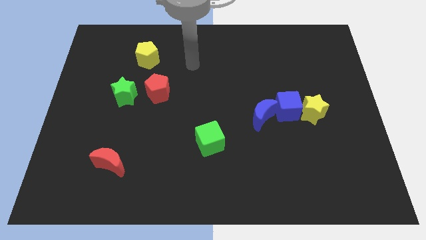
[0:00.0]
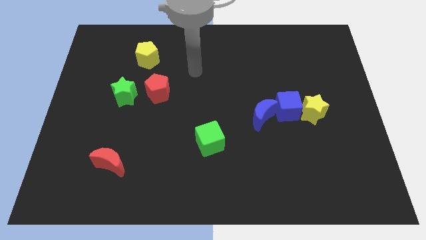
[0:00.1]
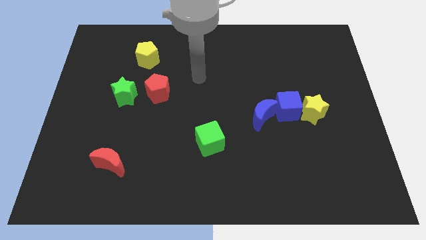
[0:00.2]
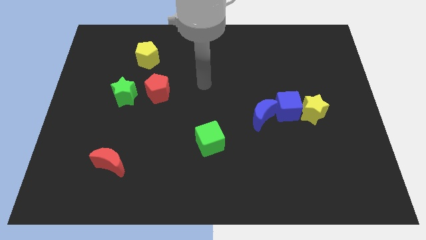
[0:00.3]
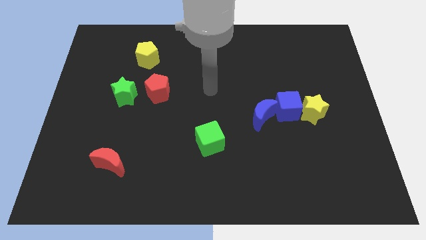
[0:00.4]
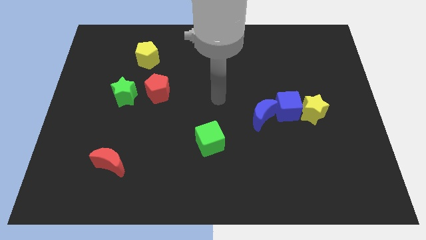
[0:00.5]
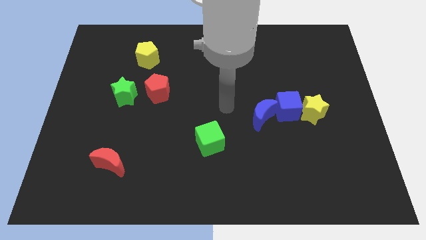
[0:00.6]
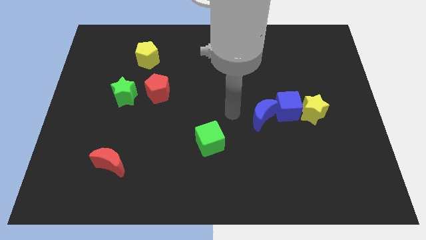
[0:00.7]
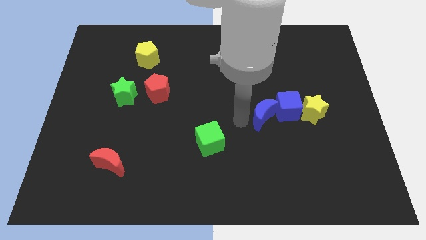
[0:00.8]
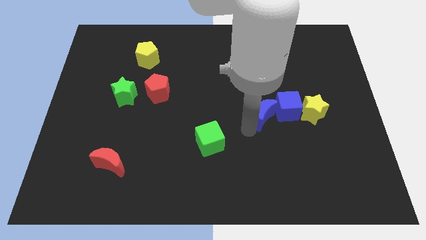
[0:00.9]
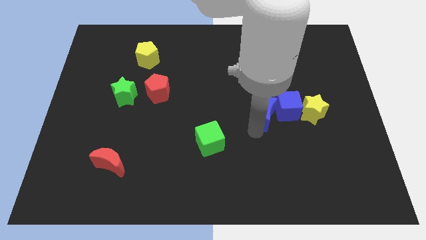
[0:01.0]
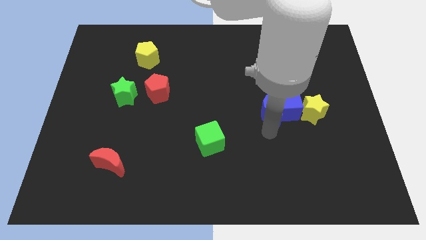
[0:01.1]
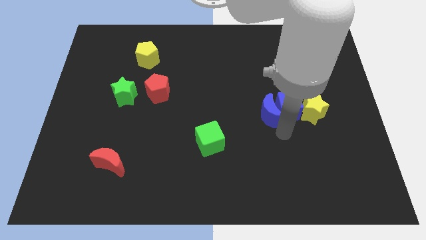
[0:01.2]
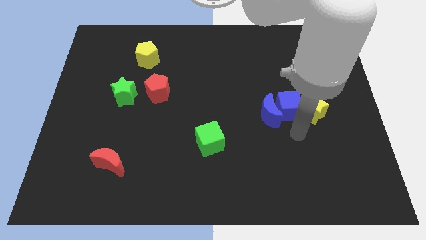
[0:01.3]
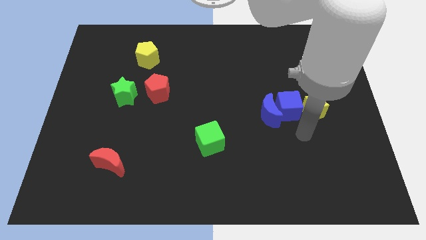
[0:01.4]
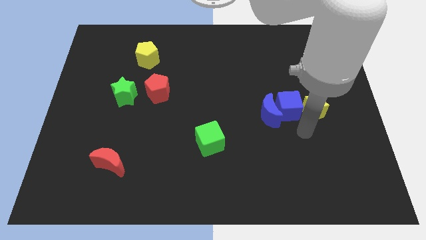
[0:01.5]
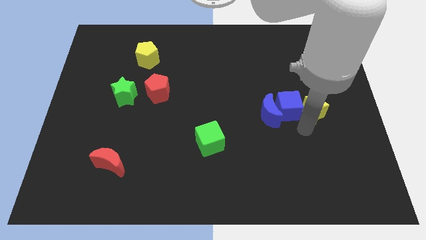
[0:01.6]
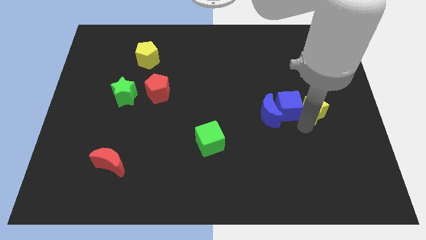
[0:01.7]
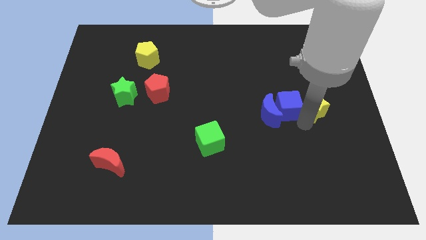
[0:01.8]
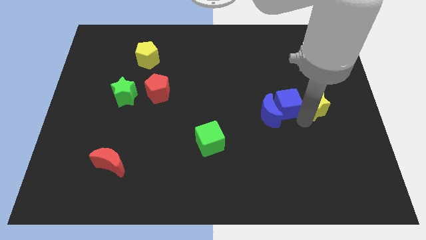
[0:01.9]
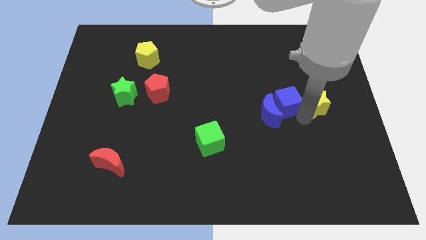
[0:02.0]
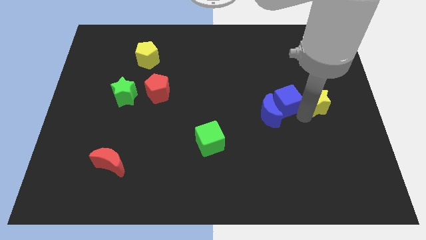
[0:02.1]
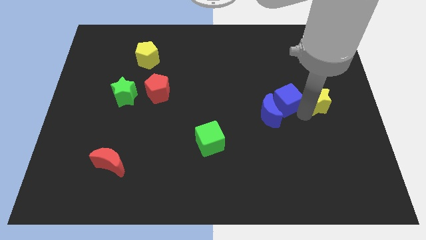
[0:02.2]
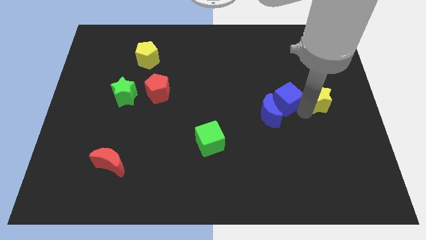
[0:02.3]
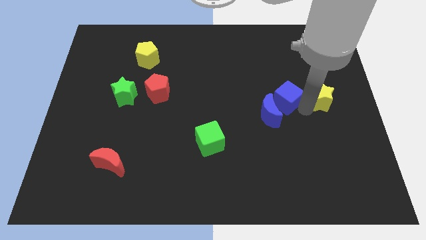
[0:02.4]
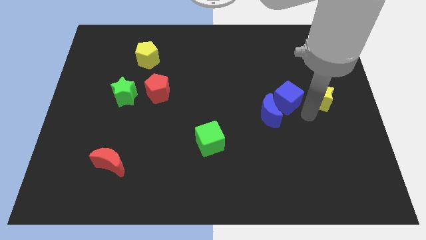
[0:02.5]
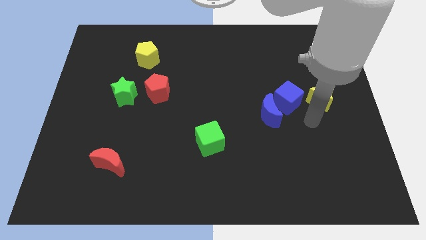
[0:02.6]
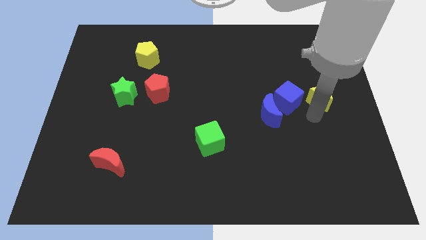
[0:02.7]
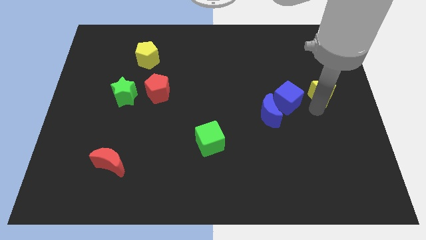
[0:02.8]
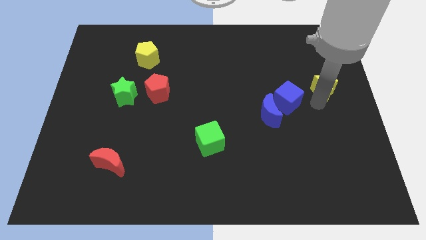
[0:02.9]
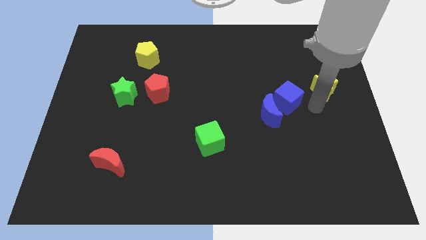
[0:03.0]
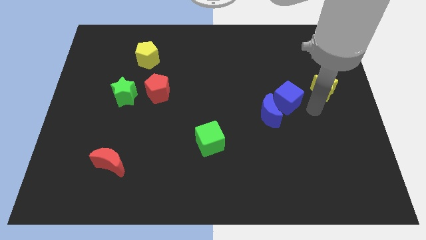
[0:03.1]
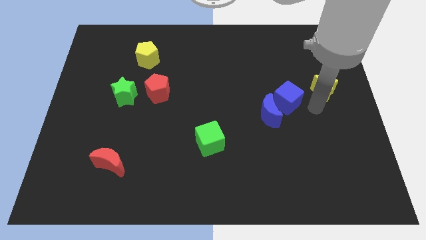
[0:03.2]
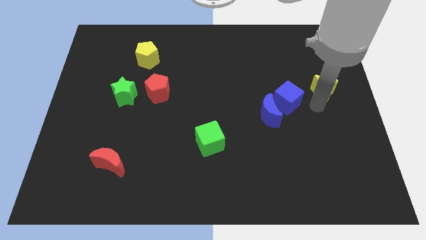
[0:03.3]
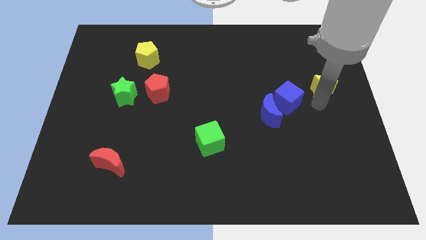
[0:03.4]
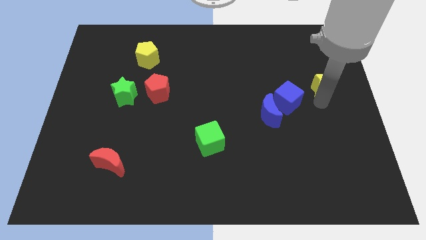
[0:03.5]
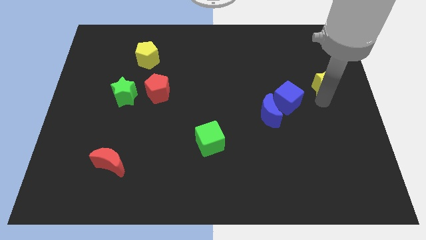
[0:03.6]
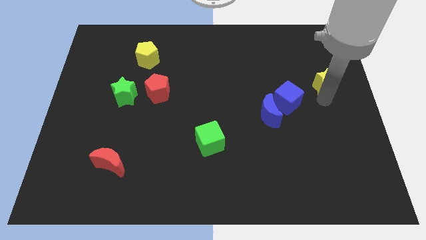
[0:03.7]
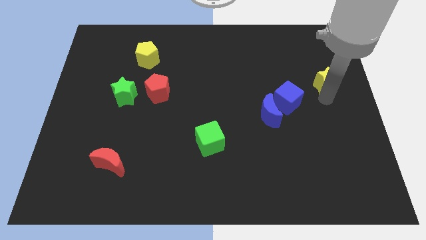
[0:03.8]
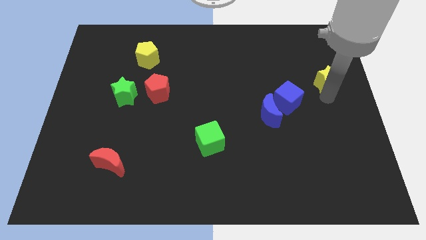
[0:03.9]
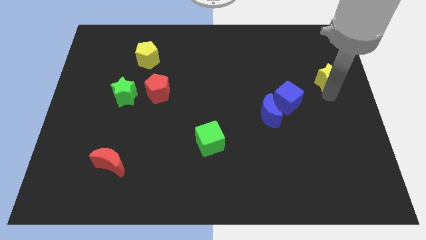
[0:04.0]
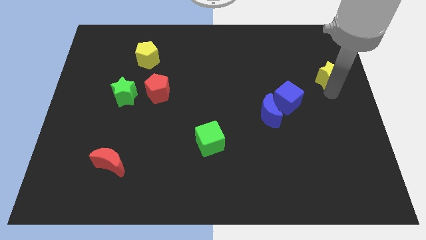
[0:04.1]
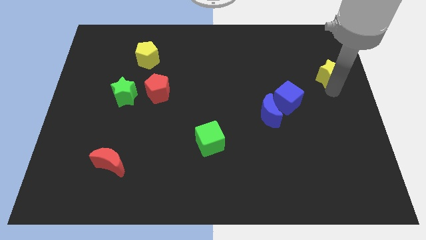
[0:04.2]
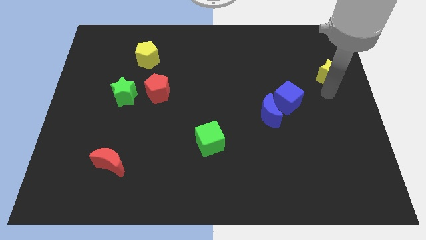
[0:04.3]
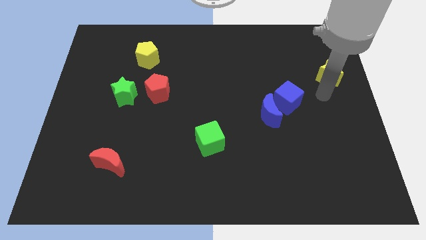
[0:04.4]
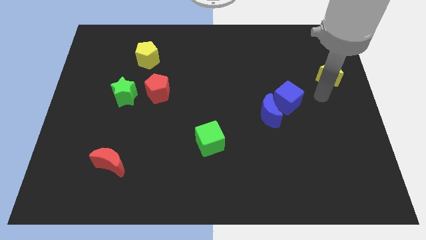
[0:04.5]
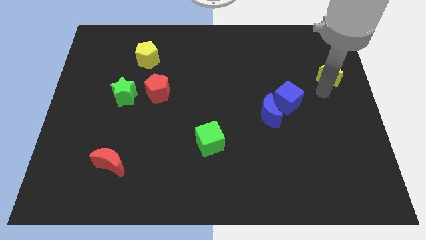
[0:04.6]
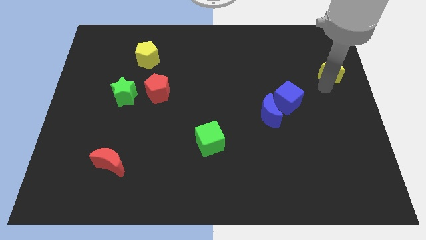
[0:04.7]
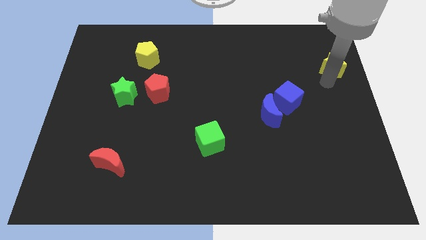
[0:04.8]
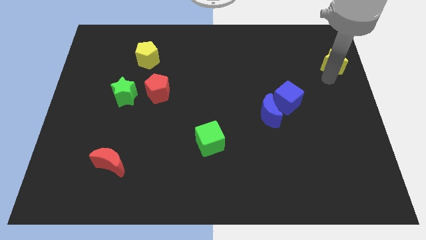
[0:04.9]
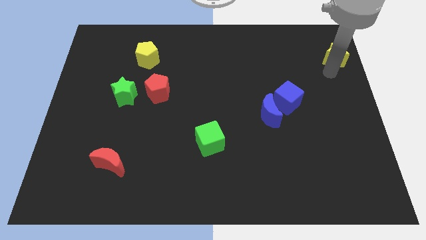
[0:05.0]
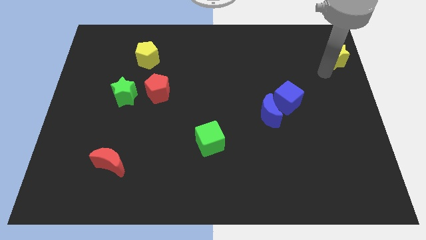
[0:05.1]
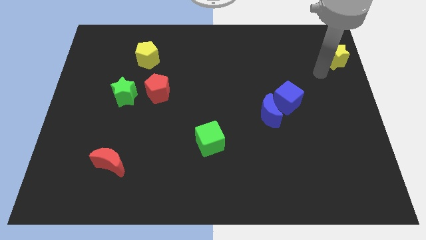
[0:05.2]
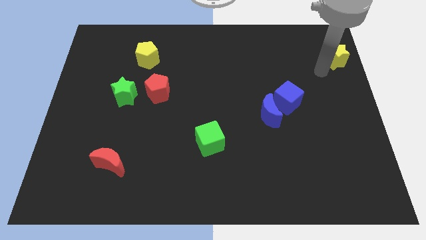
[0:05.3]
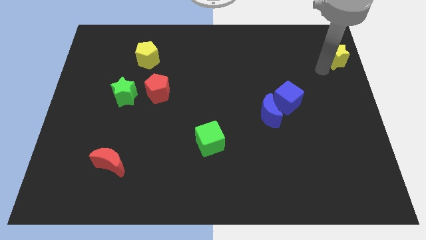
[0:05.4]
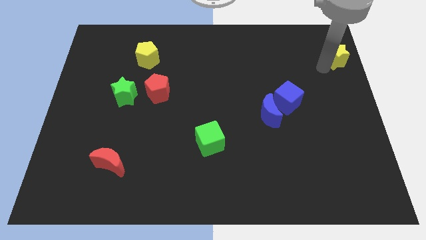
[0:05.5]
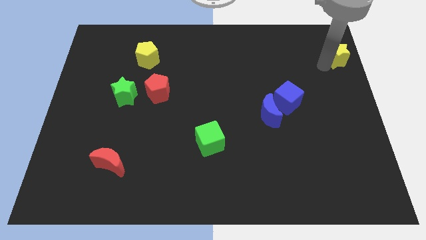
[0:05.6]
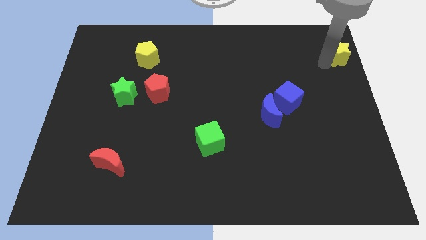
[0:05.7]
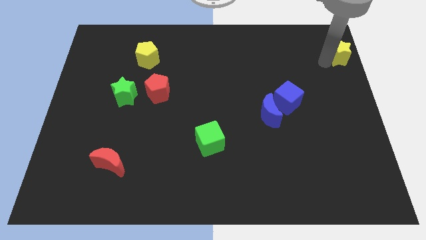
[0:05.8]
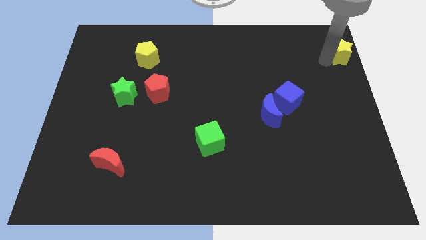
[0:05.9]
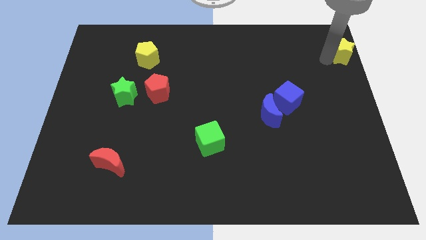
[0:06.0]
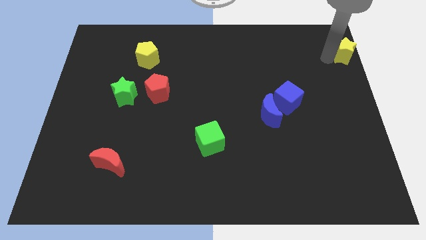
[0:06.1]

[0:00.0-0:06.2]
put the yellow star to the top right

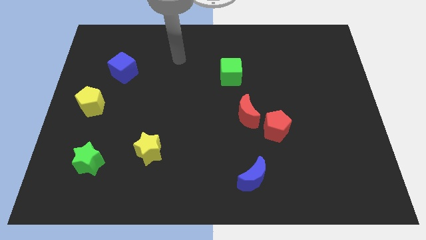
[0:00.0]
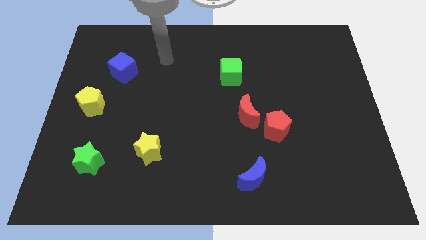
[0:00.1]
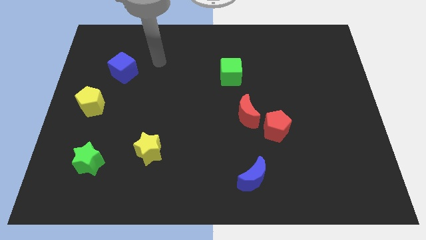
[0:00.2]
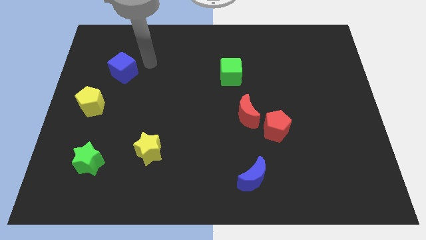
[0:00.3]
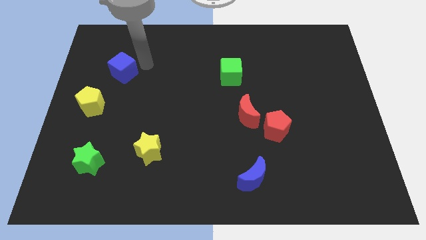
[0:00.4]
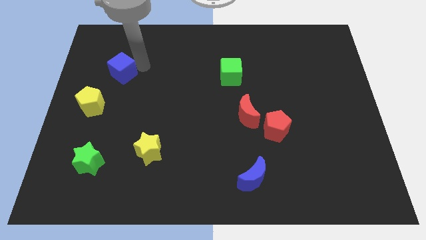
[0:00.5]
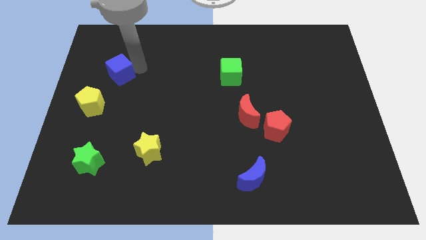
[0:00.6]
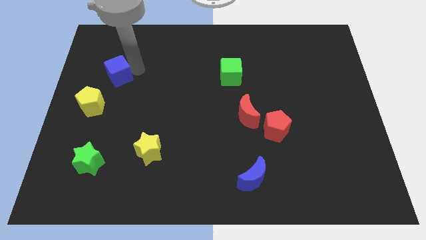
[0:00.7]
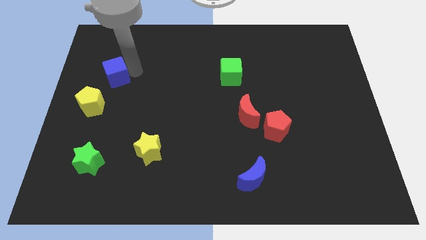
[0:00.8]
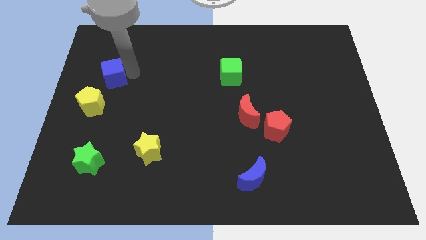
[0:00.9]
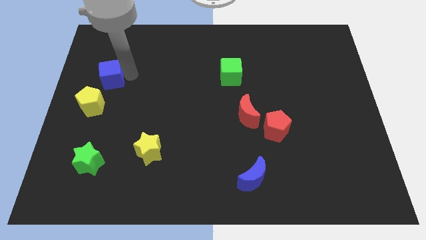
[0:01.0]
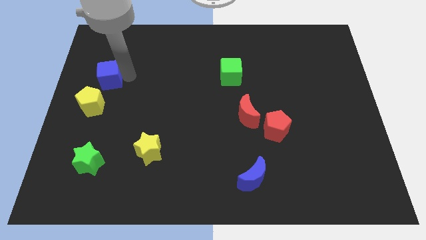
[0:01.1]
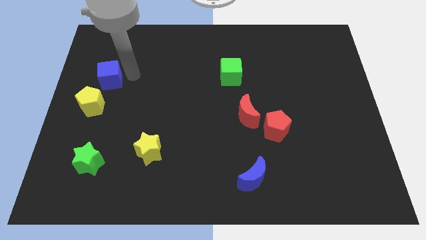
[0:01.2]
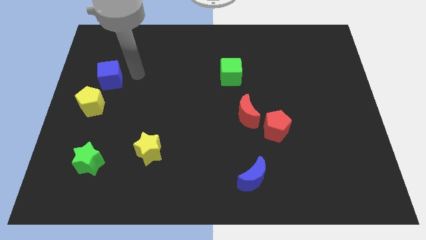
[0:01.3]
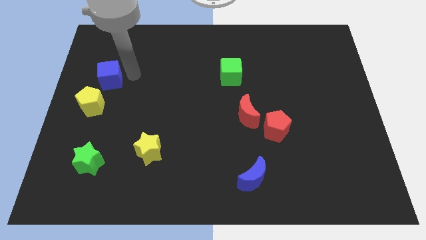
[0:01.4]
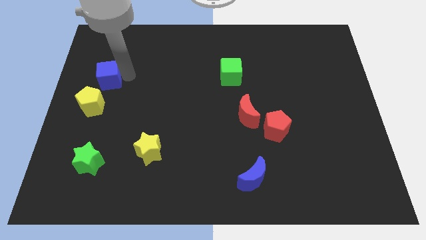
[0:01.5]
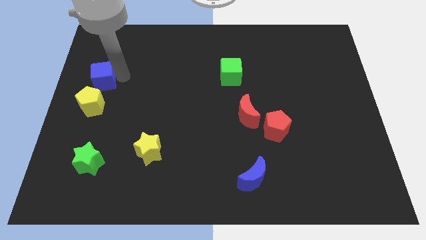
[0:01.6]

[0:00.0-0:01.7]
move the blue cube to the center left
